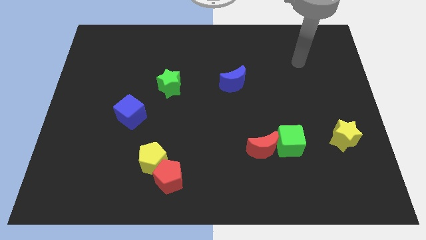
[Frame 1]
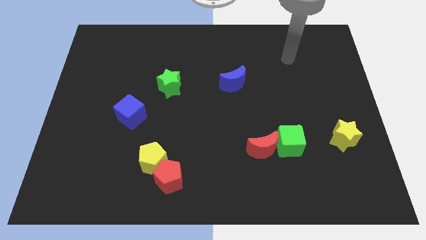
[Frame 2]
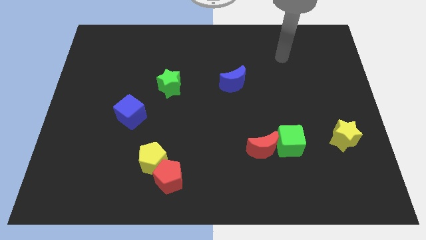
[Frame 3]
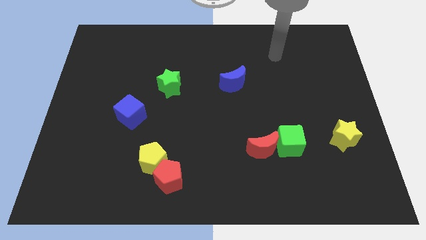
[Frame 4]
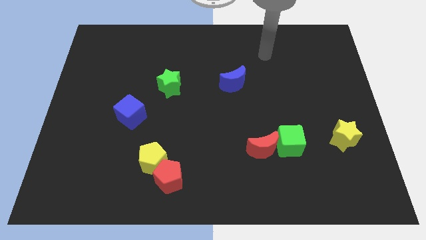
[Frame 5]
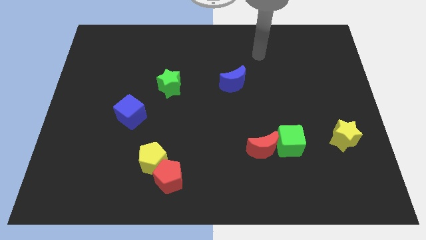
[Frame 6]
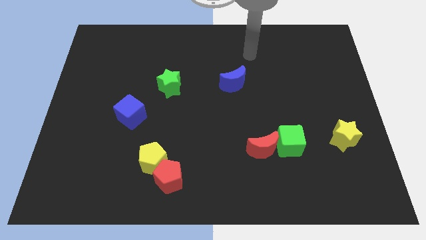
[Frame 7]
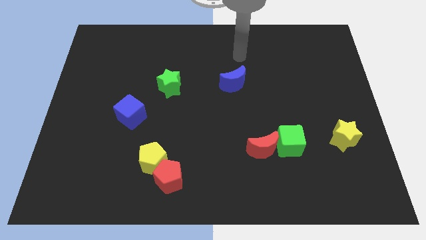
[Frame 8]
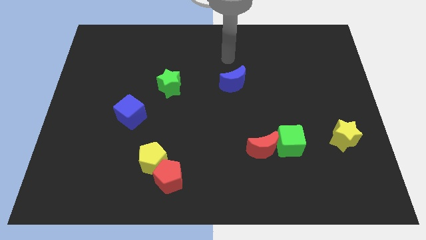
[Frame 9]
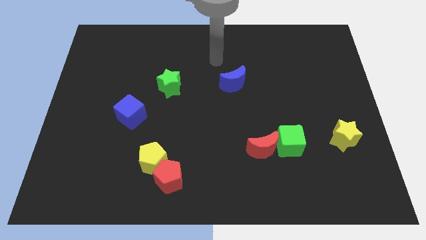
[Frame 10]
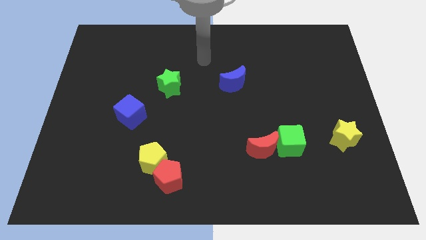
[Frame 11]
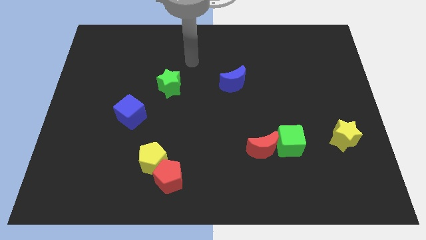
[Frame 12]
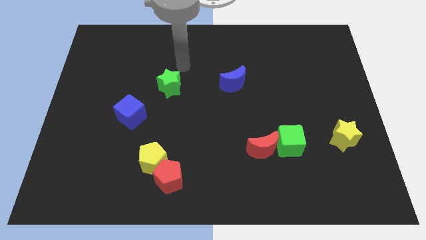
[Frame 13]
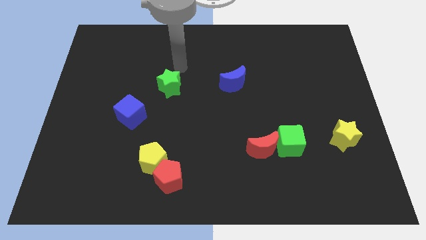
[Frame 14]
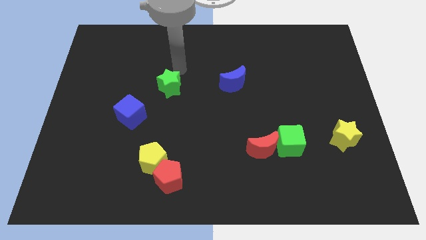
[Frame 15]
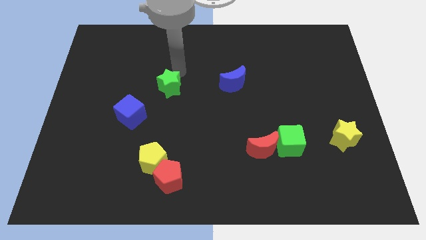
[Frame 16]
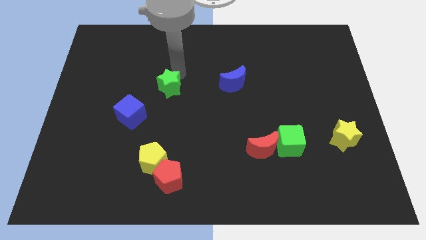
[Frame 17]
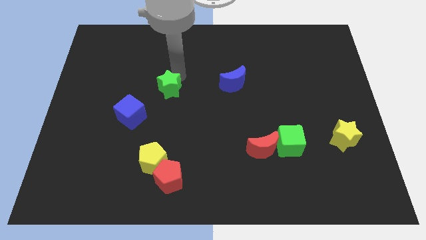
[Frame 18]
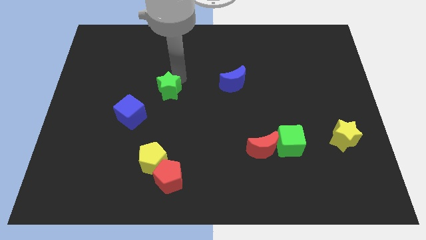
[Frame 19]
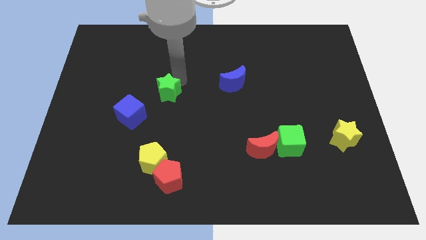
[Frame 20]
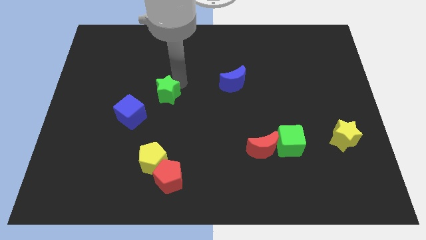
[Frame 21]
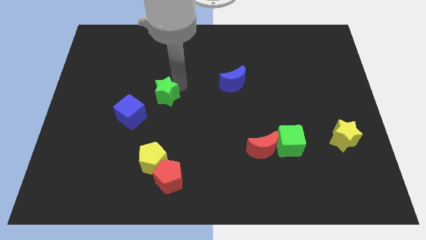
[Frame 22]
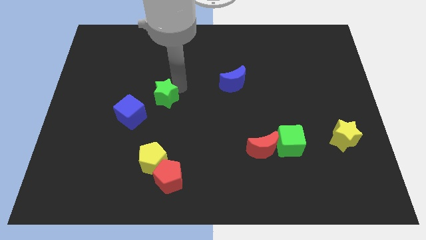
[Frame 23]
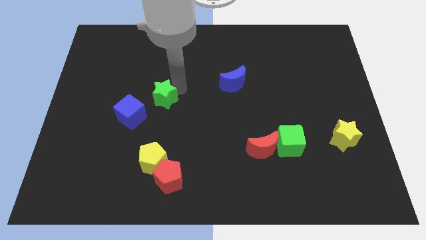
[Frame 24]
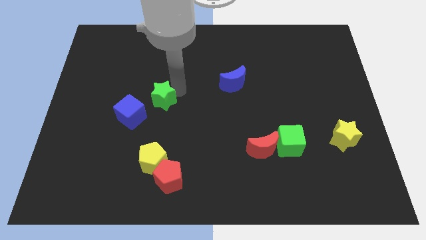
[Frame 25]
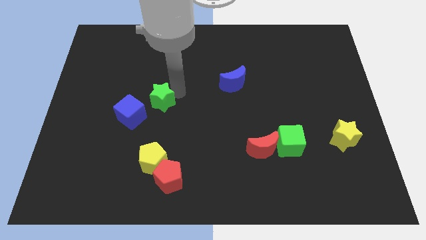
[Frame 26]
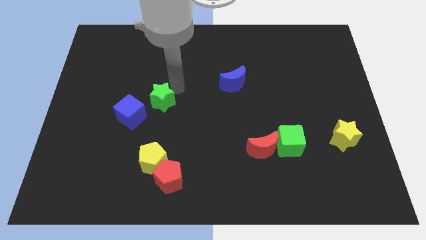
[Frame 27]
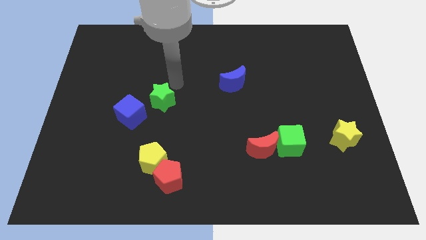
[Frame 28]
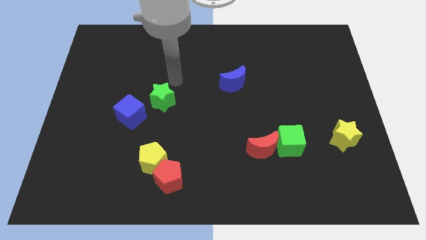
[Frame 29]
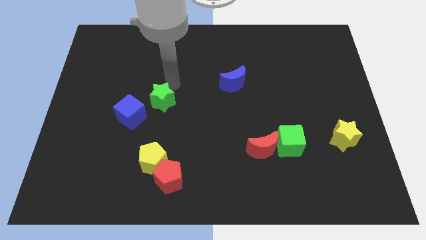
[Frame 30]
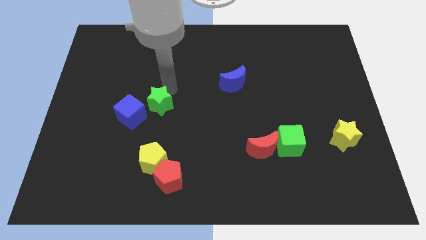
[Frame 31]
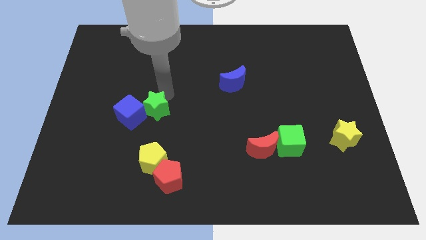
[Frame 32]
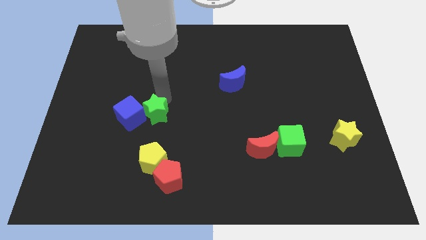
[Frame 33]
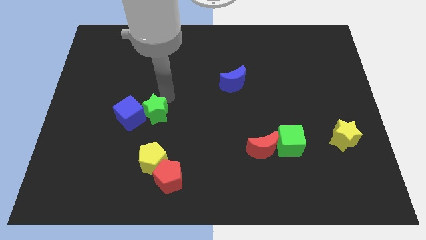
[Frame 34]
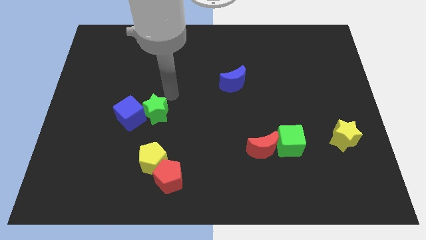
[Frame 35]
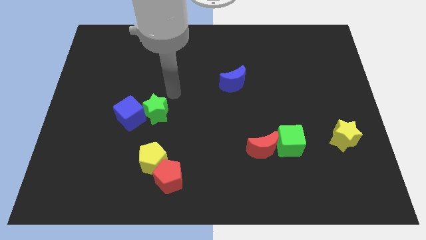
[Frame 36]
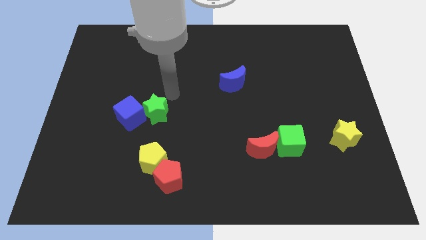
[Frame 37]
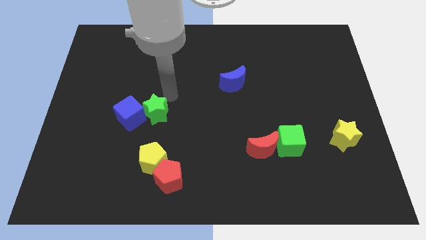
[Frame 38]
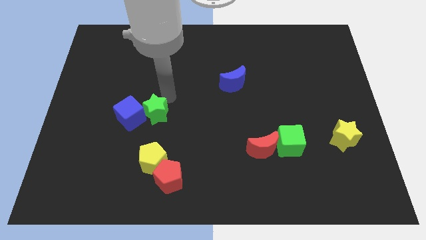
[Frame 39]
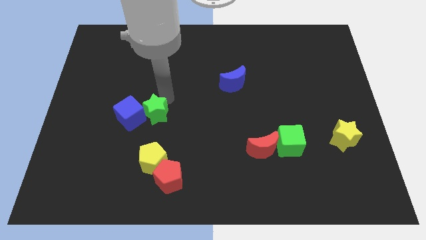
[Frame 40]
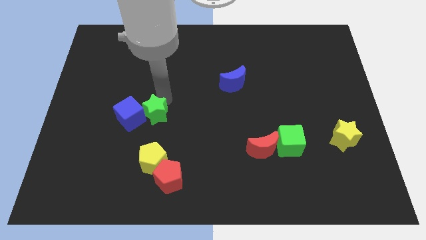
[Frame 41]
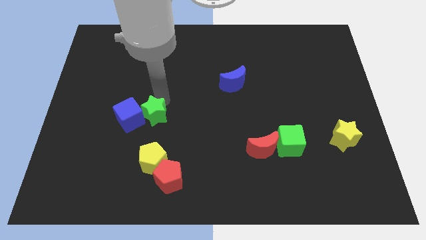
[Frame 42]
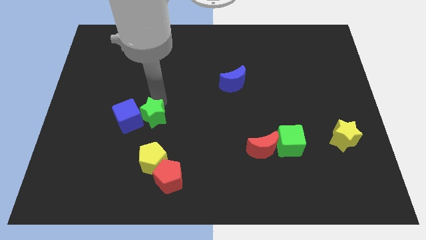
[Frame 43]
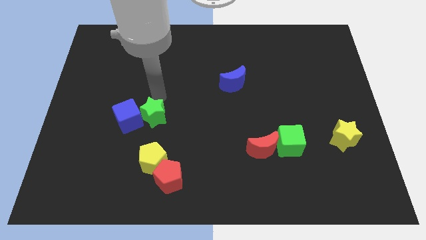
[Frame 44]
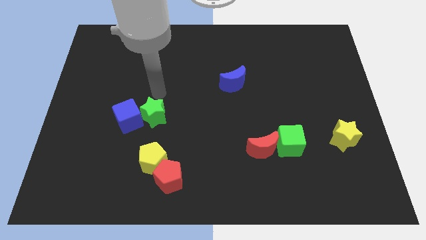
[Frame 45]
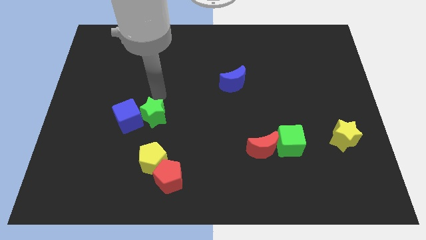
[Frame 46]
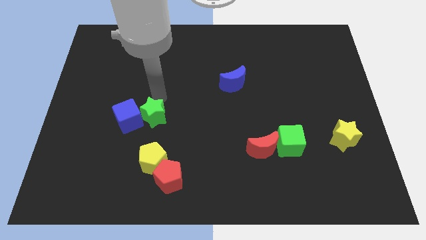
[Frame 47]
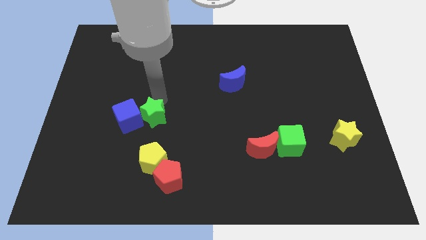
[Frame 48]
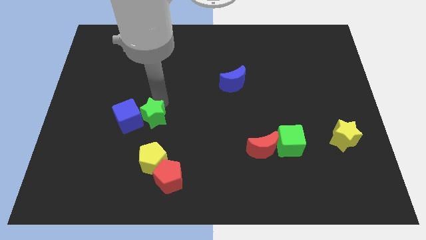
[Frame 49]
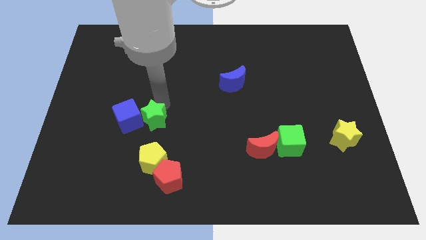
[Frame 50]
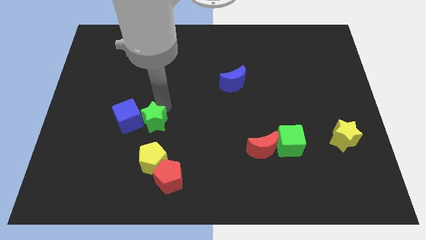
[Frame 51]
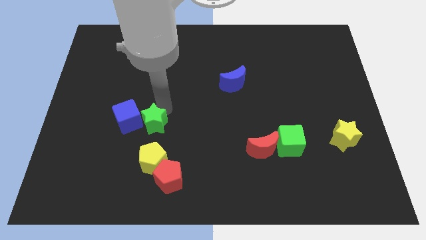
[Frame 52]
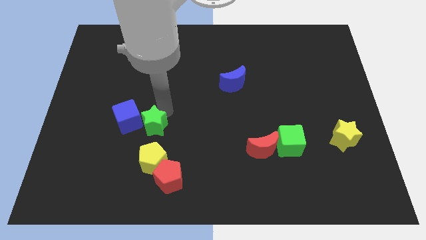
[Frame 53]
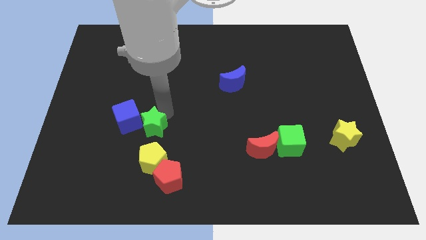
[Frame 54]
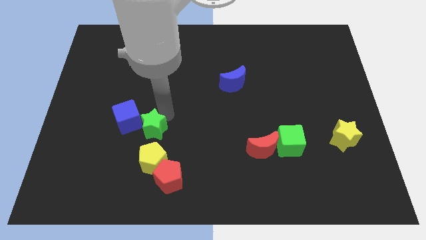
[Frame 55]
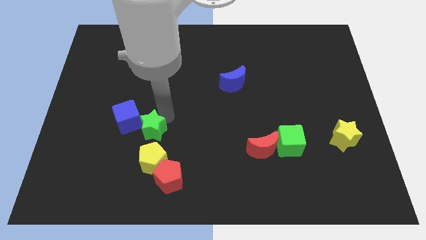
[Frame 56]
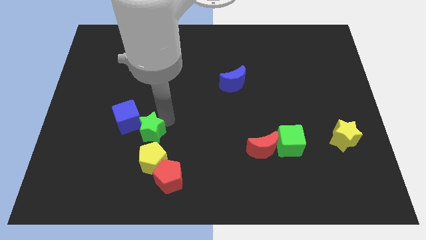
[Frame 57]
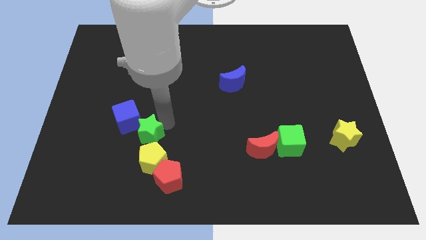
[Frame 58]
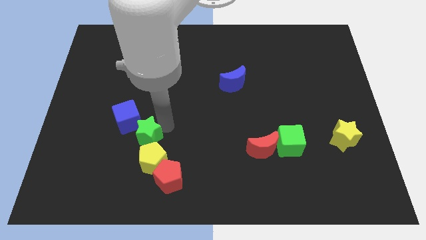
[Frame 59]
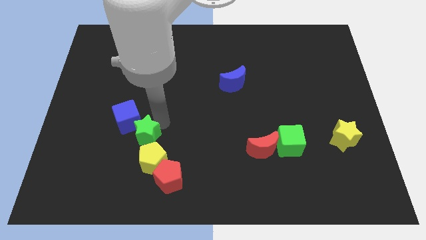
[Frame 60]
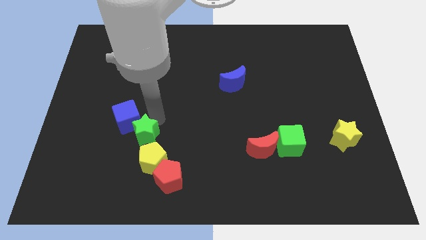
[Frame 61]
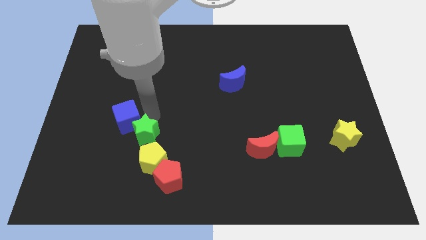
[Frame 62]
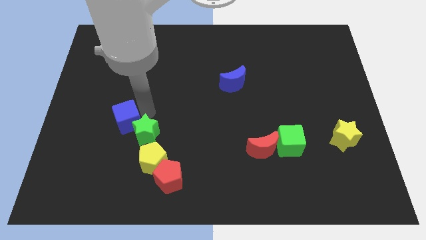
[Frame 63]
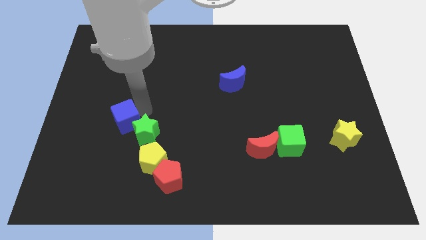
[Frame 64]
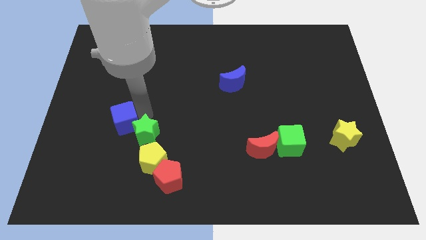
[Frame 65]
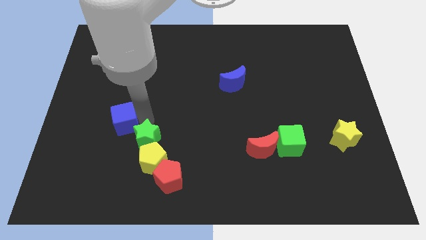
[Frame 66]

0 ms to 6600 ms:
push the green star close to the yellow pentagon

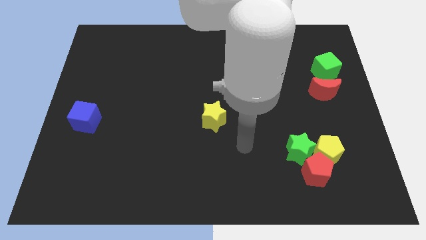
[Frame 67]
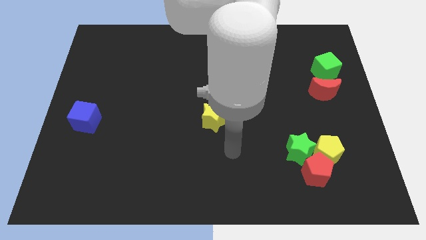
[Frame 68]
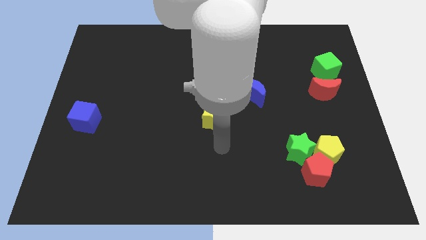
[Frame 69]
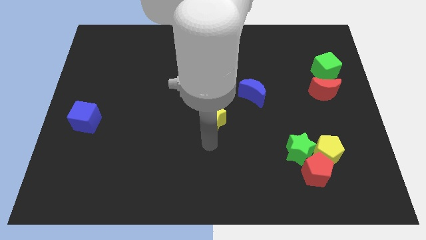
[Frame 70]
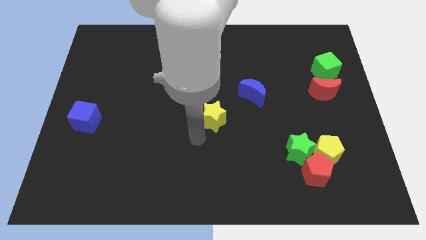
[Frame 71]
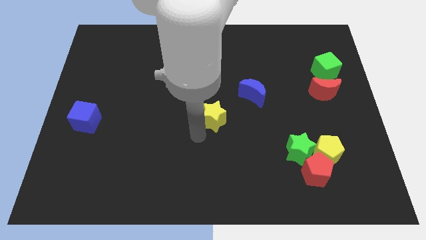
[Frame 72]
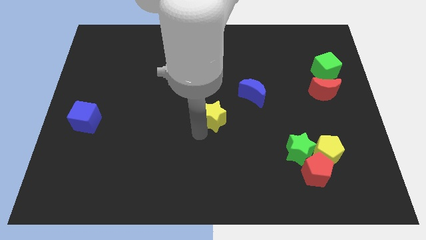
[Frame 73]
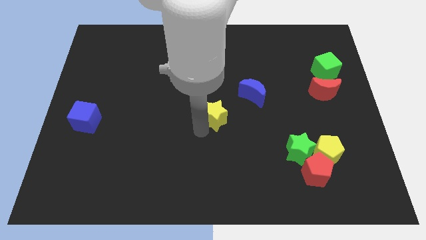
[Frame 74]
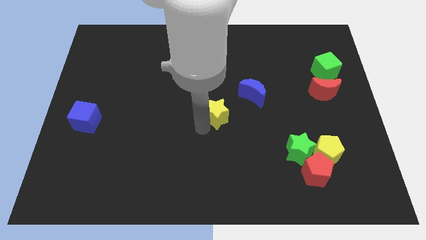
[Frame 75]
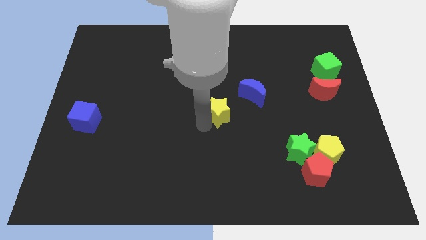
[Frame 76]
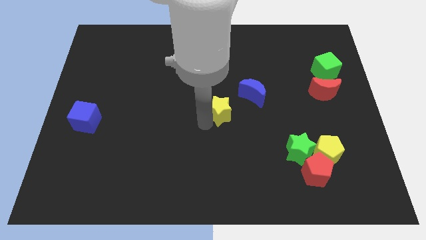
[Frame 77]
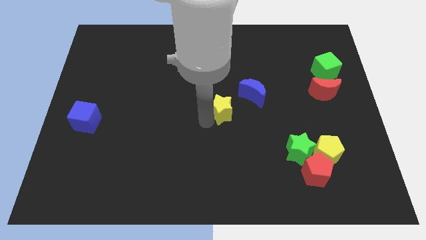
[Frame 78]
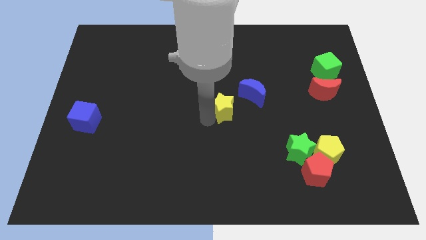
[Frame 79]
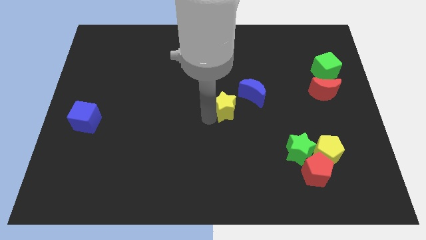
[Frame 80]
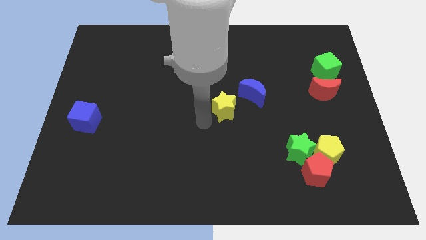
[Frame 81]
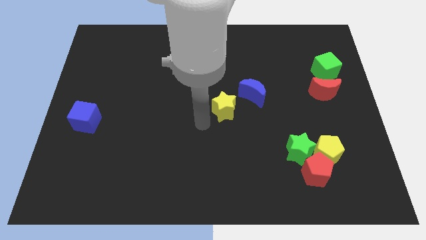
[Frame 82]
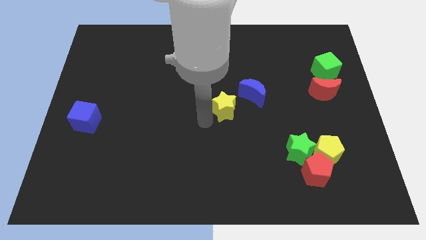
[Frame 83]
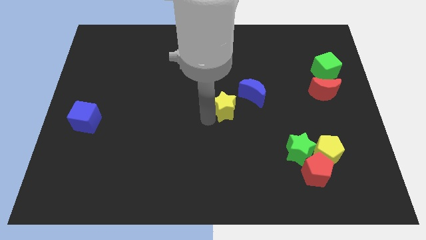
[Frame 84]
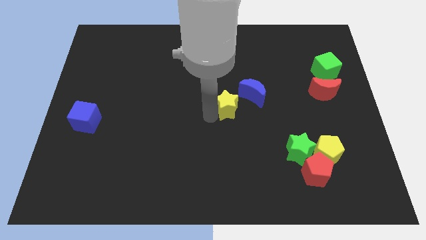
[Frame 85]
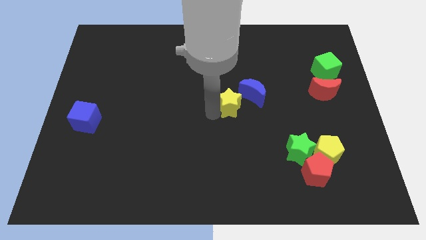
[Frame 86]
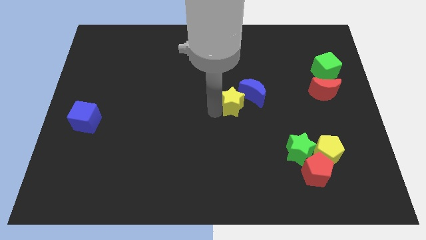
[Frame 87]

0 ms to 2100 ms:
move the yellow star close to the blue moon
